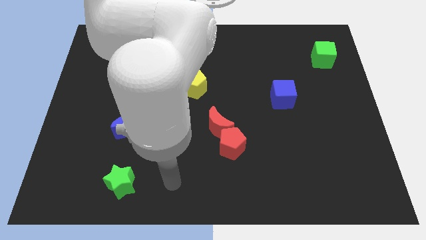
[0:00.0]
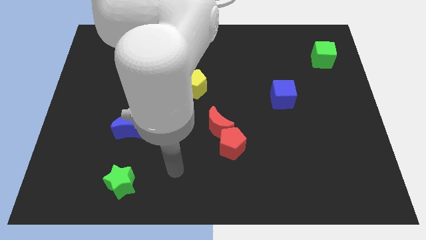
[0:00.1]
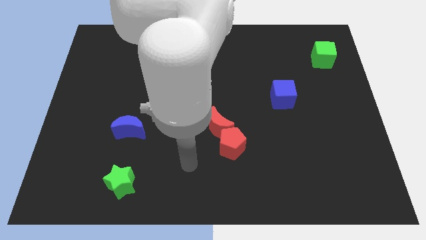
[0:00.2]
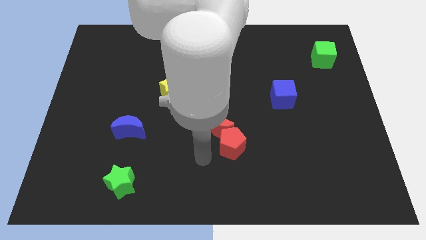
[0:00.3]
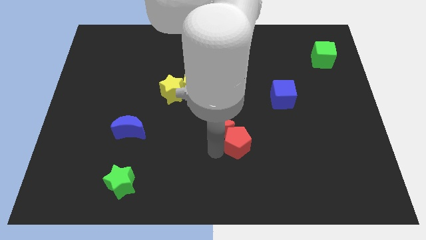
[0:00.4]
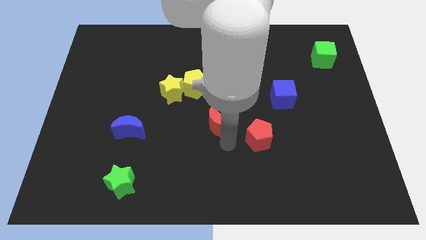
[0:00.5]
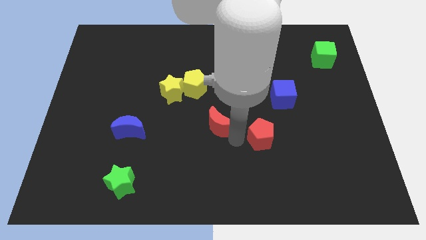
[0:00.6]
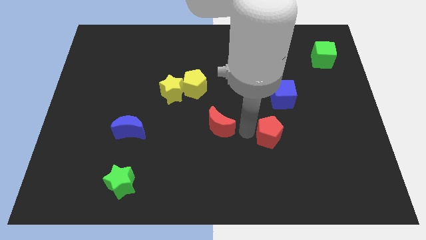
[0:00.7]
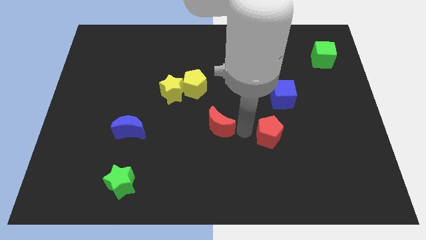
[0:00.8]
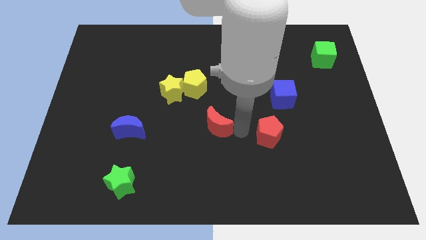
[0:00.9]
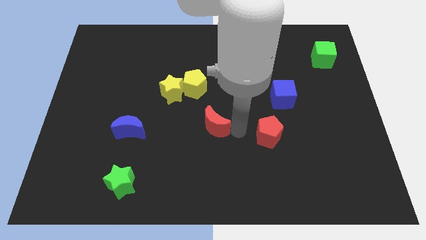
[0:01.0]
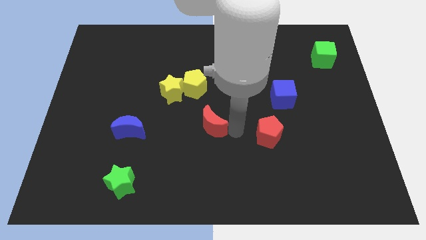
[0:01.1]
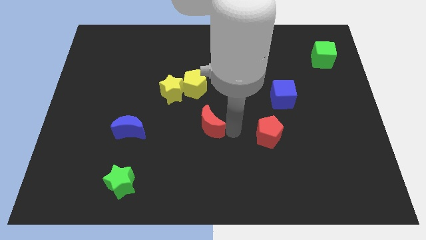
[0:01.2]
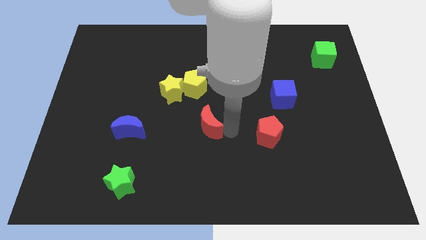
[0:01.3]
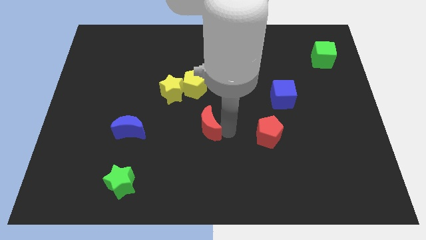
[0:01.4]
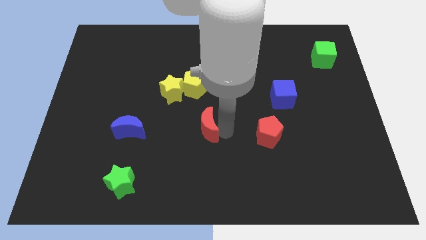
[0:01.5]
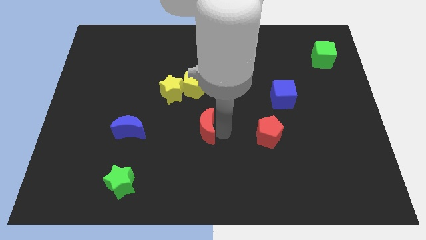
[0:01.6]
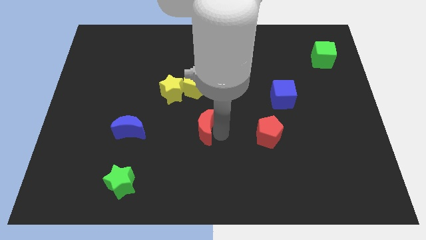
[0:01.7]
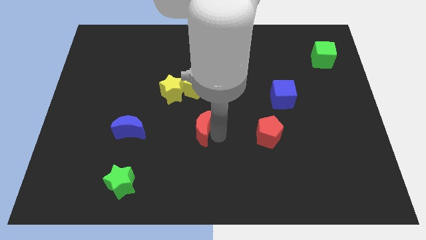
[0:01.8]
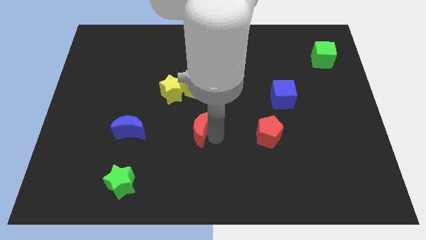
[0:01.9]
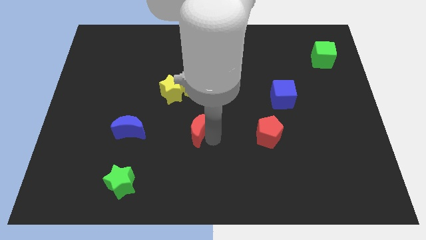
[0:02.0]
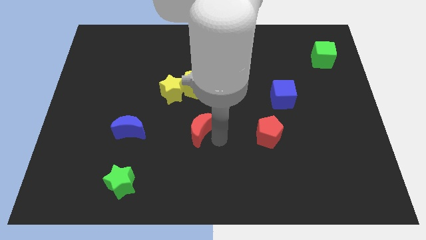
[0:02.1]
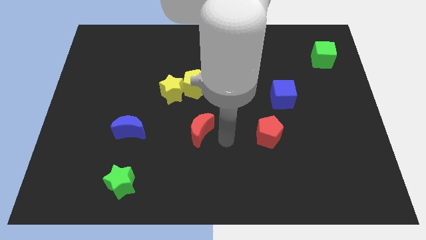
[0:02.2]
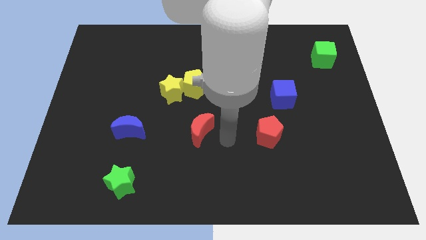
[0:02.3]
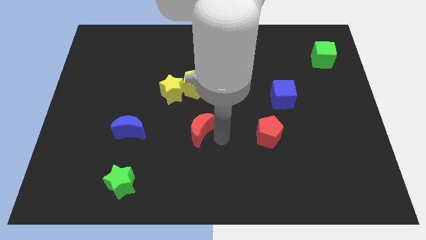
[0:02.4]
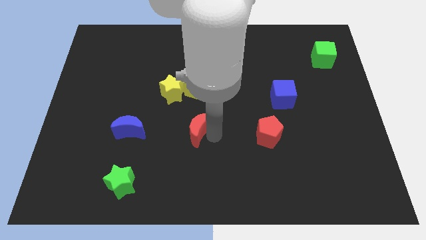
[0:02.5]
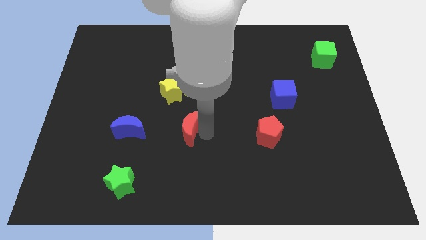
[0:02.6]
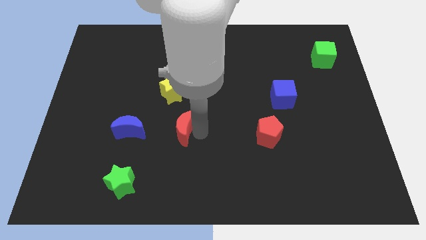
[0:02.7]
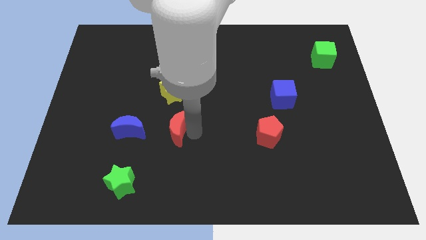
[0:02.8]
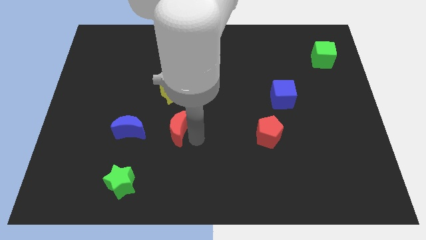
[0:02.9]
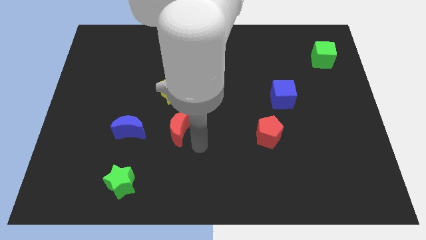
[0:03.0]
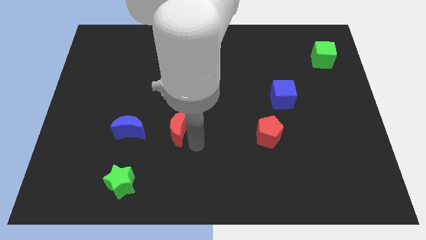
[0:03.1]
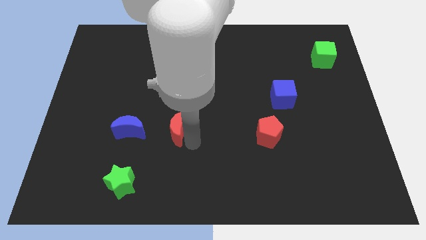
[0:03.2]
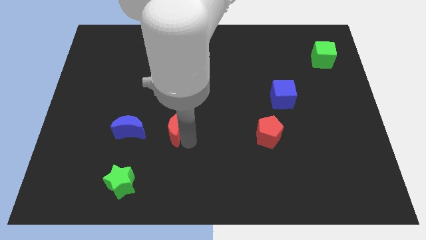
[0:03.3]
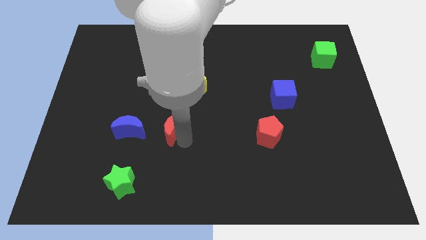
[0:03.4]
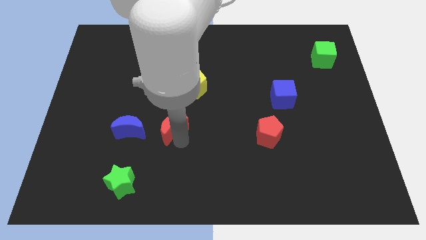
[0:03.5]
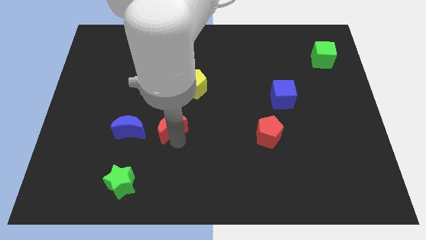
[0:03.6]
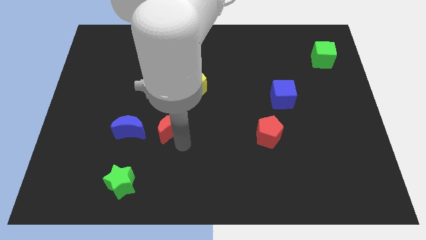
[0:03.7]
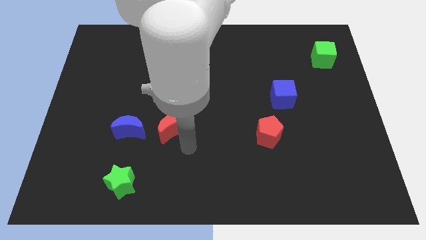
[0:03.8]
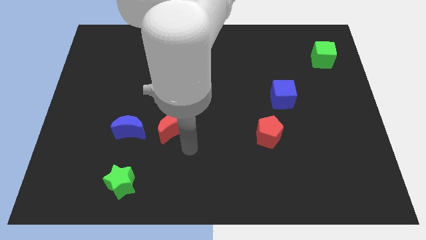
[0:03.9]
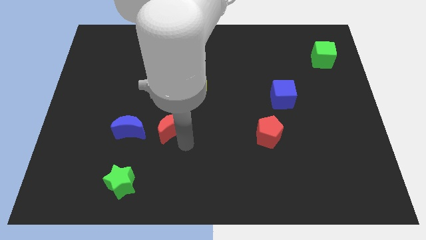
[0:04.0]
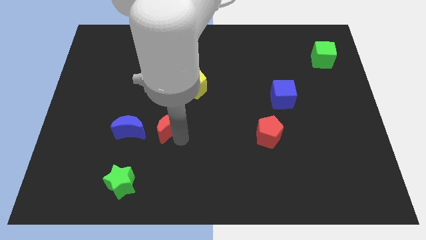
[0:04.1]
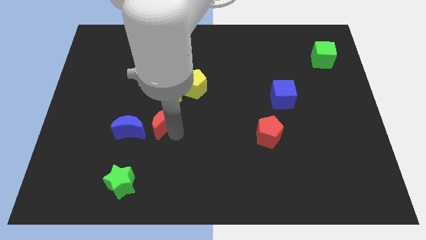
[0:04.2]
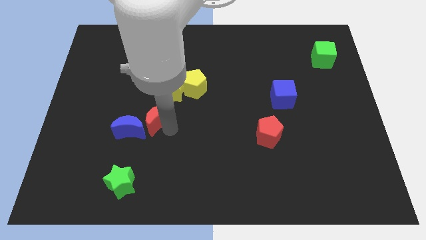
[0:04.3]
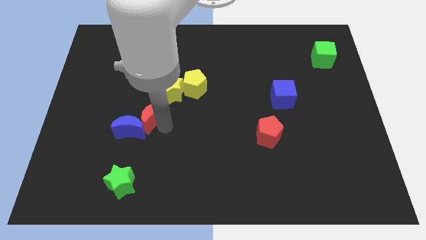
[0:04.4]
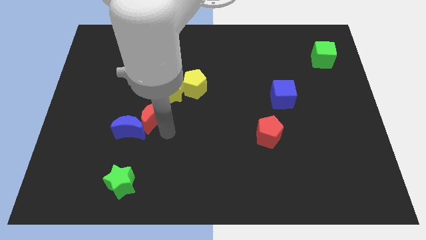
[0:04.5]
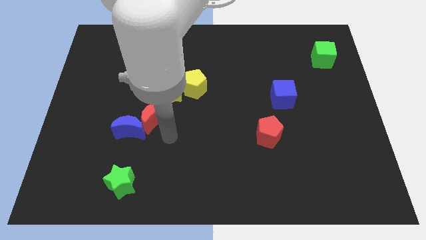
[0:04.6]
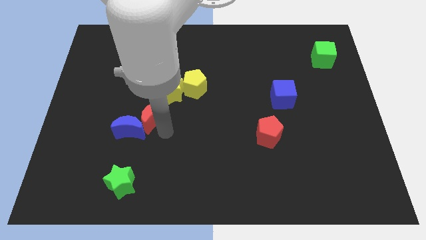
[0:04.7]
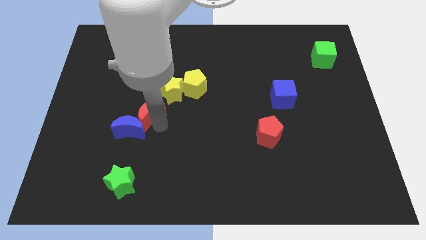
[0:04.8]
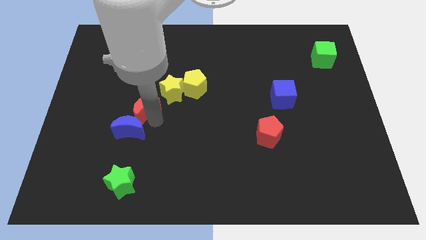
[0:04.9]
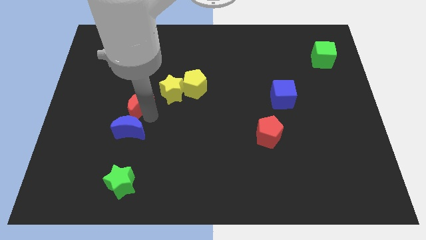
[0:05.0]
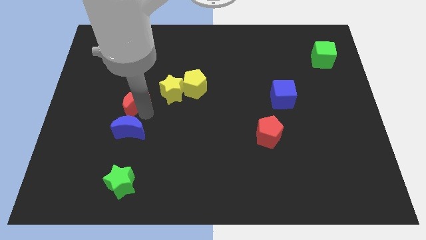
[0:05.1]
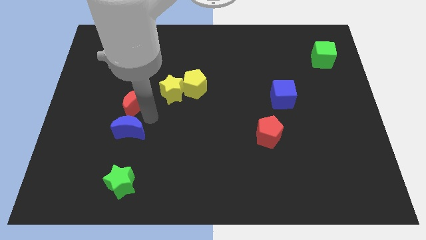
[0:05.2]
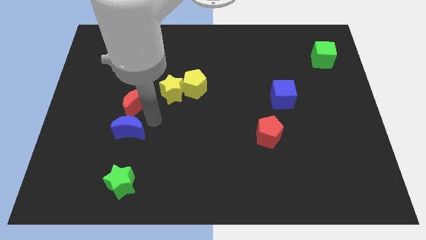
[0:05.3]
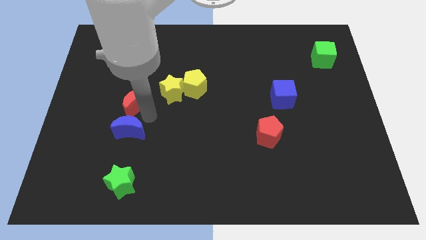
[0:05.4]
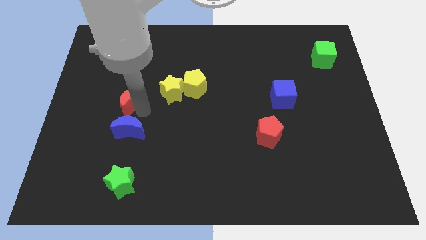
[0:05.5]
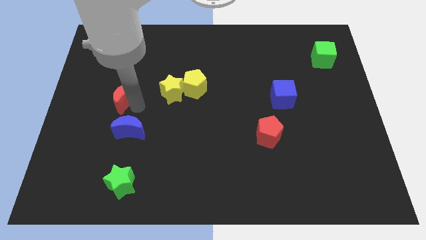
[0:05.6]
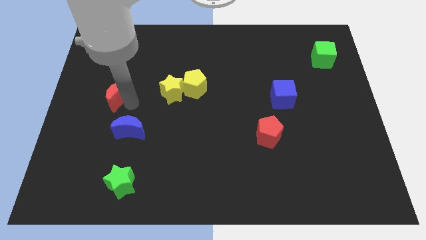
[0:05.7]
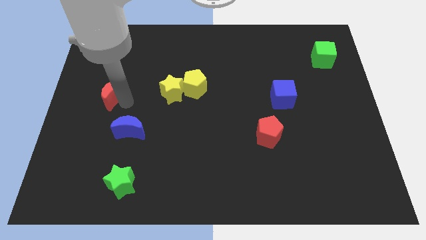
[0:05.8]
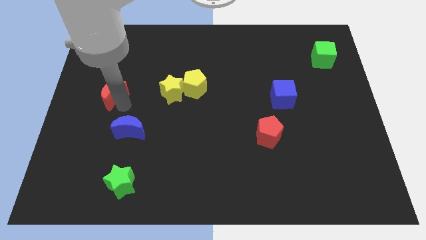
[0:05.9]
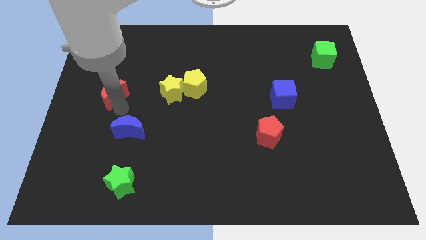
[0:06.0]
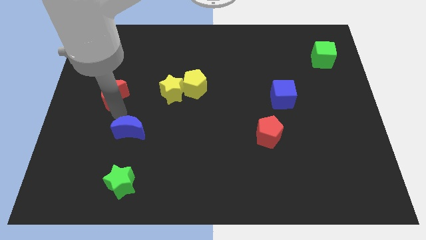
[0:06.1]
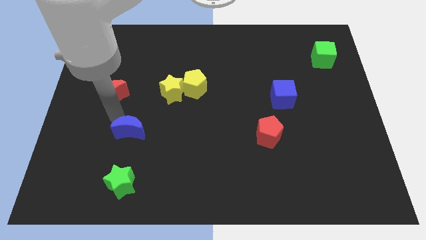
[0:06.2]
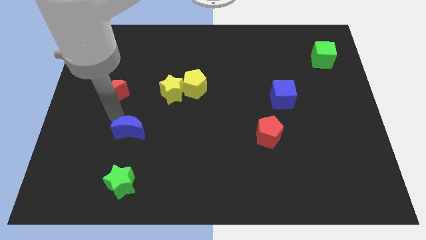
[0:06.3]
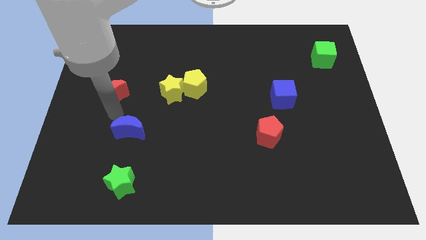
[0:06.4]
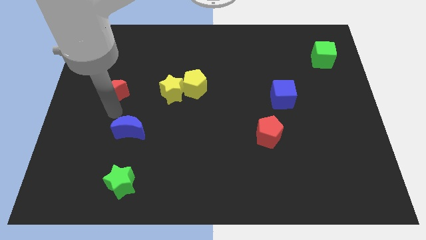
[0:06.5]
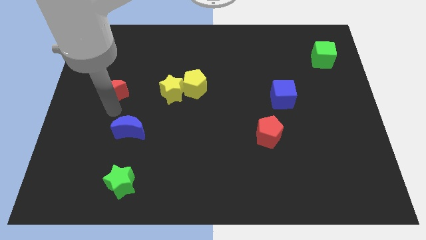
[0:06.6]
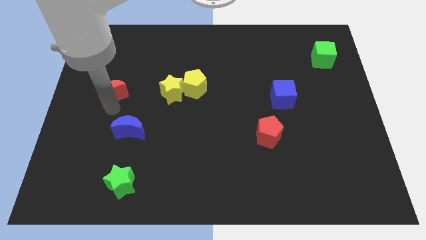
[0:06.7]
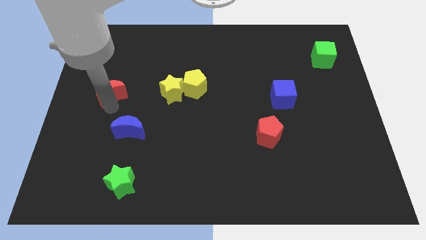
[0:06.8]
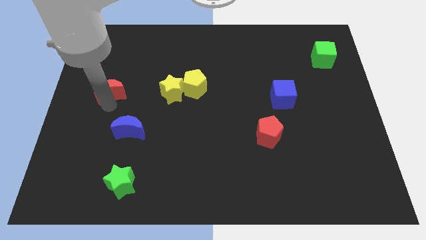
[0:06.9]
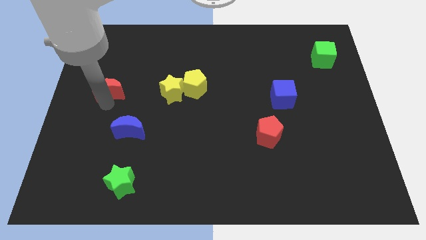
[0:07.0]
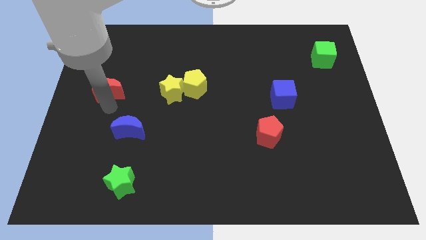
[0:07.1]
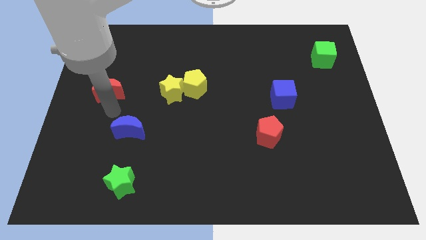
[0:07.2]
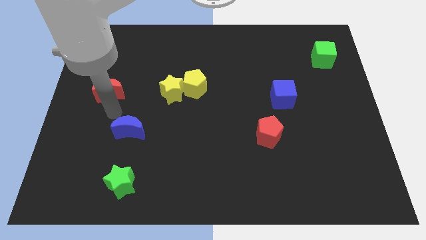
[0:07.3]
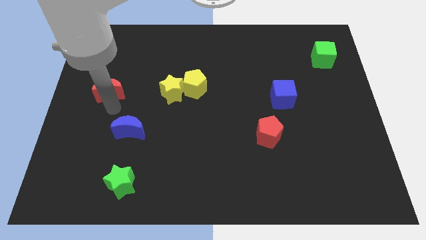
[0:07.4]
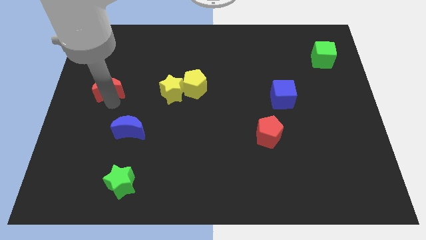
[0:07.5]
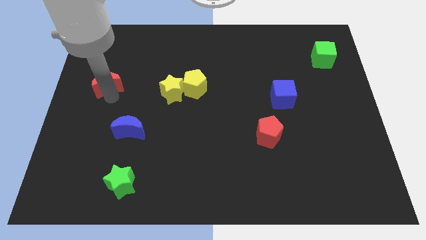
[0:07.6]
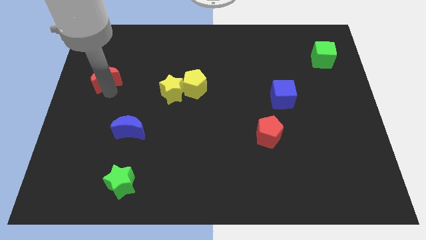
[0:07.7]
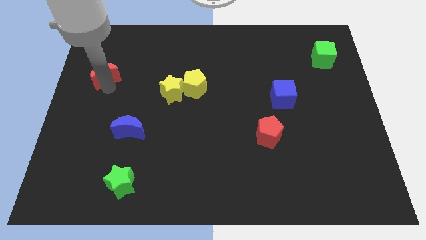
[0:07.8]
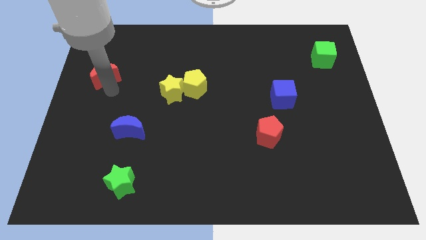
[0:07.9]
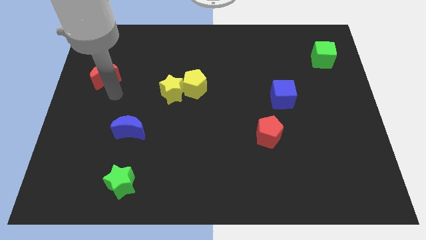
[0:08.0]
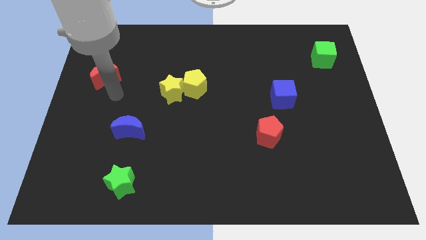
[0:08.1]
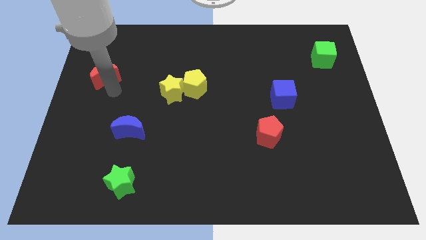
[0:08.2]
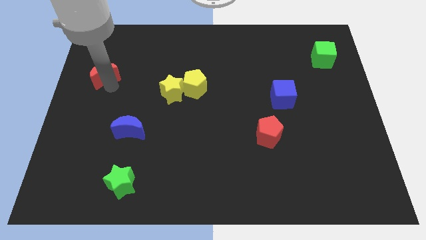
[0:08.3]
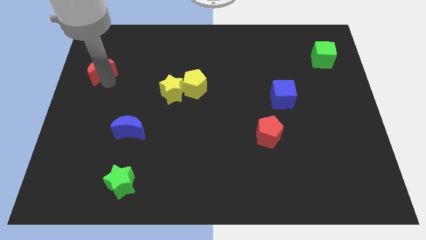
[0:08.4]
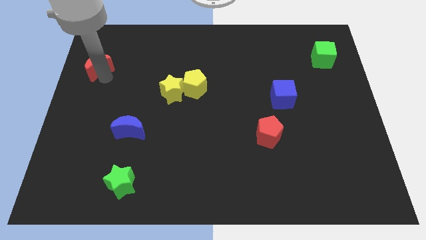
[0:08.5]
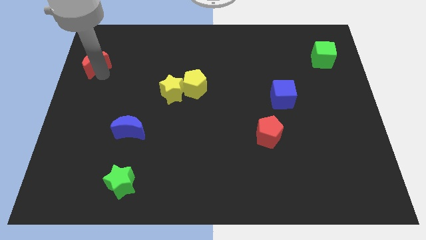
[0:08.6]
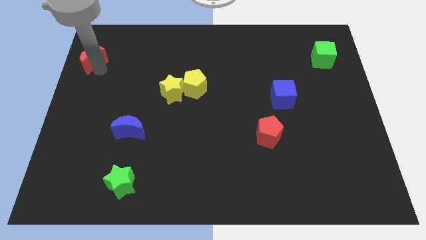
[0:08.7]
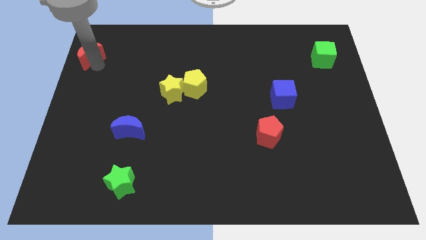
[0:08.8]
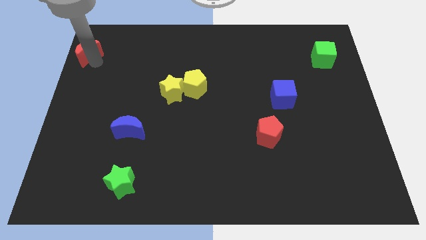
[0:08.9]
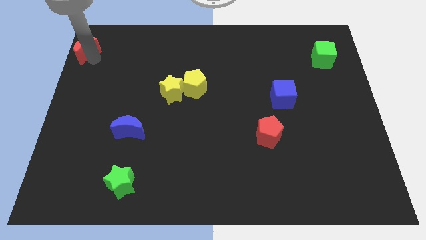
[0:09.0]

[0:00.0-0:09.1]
push the red moon to the top left corner
